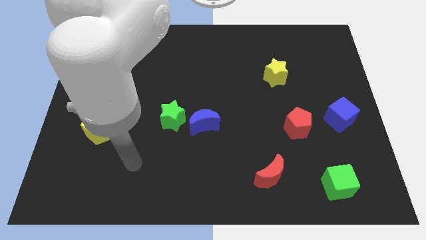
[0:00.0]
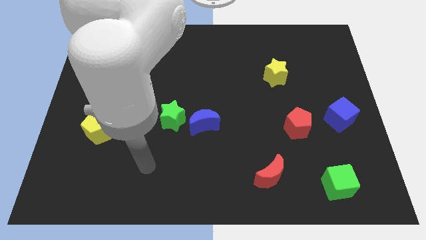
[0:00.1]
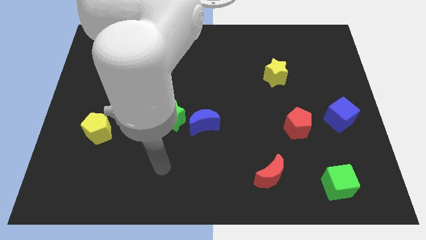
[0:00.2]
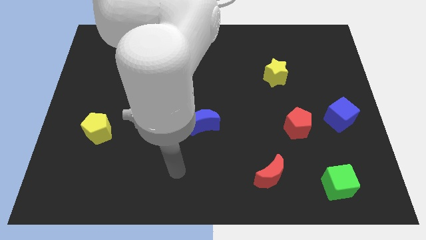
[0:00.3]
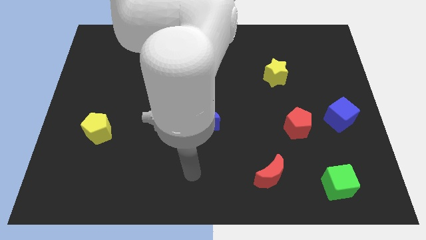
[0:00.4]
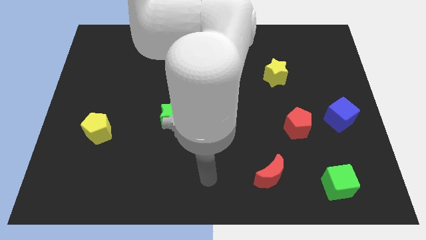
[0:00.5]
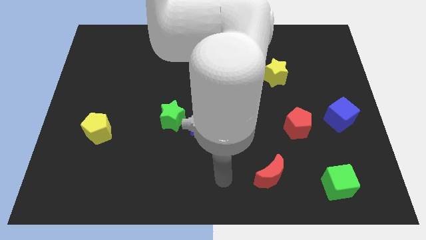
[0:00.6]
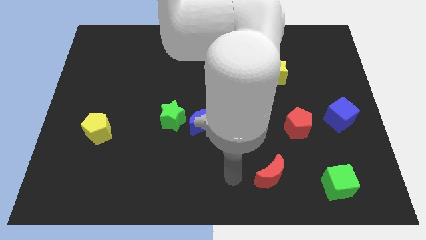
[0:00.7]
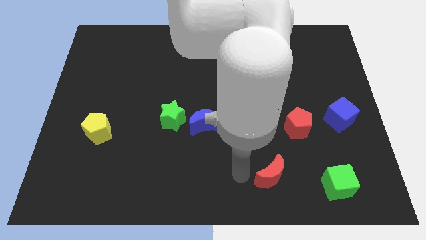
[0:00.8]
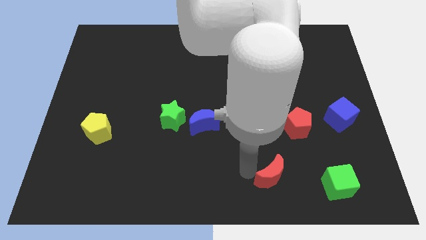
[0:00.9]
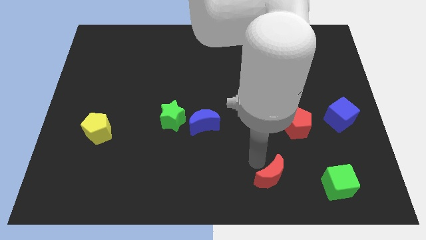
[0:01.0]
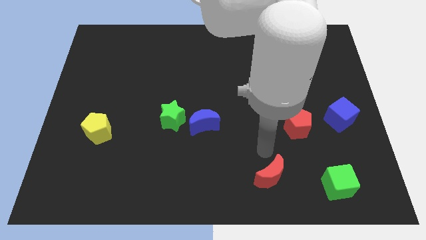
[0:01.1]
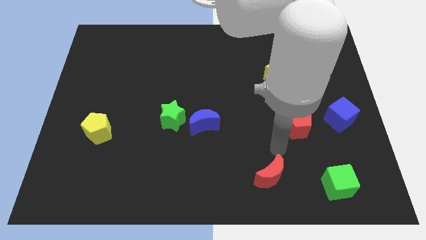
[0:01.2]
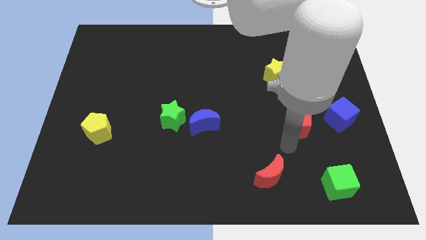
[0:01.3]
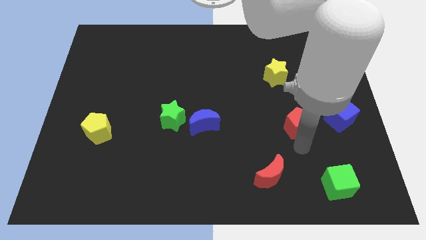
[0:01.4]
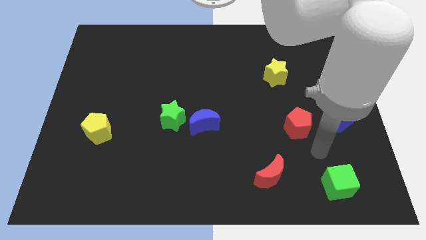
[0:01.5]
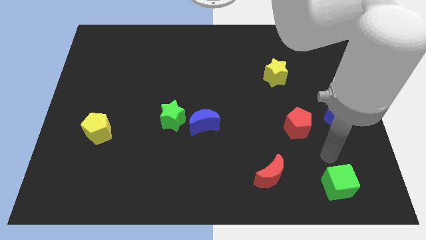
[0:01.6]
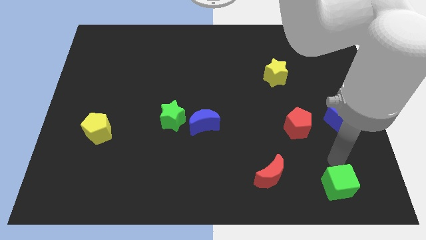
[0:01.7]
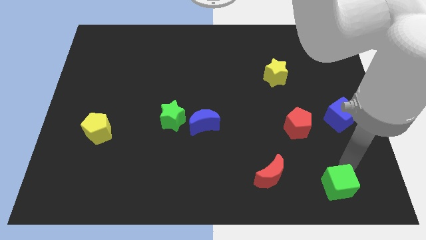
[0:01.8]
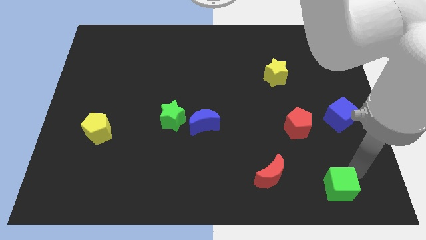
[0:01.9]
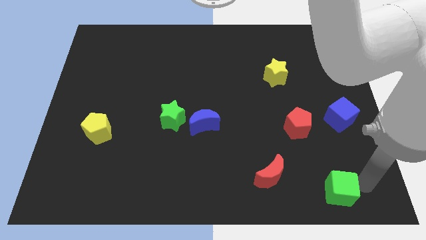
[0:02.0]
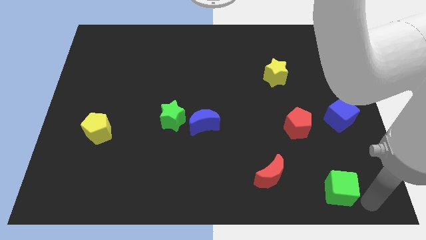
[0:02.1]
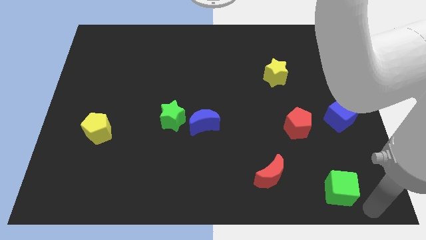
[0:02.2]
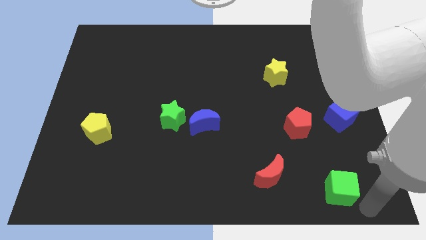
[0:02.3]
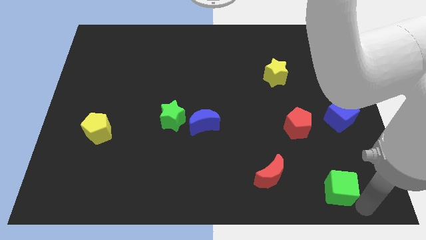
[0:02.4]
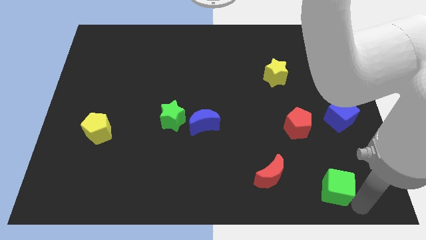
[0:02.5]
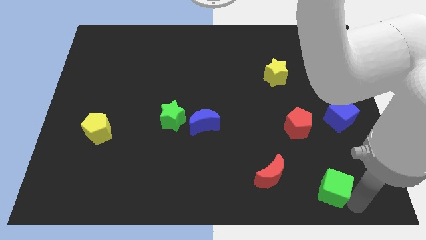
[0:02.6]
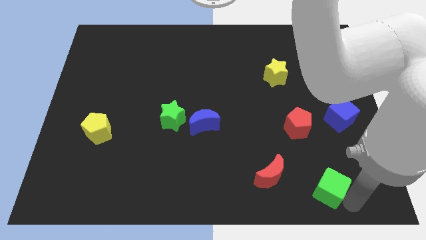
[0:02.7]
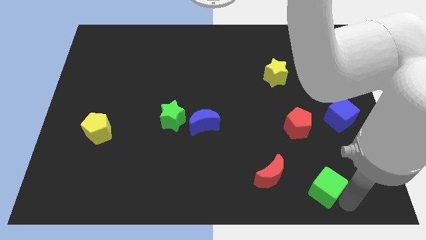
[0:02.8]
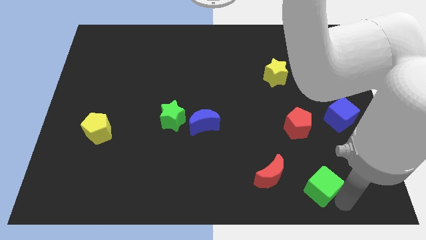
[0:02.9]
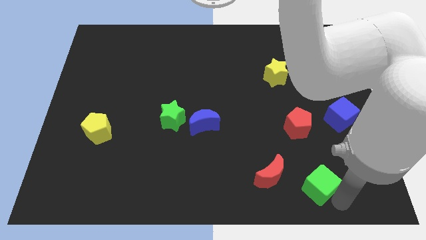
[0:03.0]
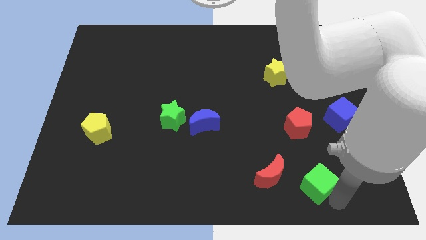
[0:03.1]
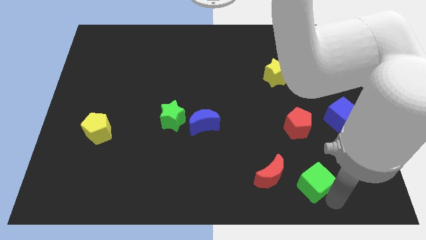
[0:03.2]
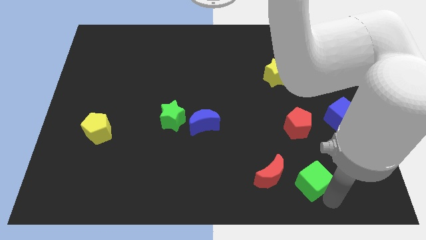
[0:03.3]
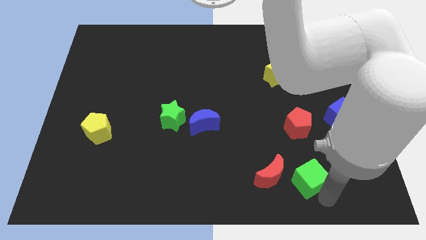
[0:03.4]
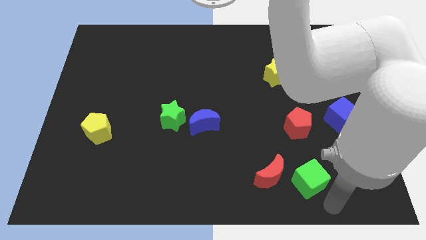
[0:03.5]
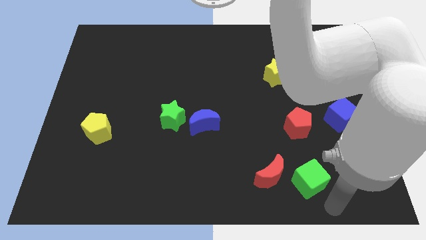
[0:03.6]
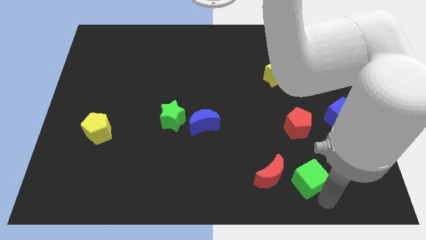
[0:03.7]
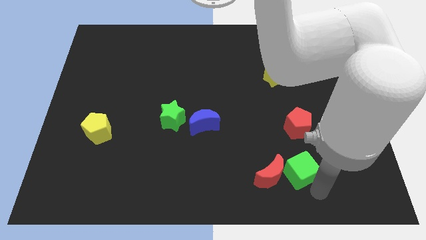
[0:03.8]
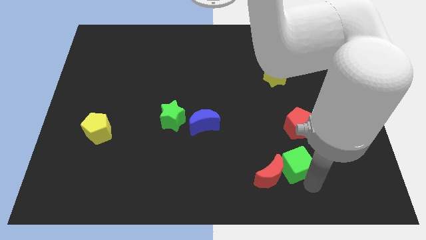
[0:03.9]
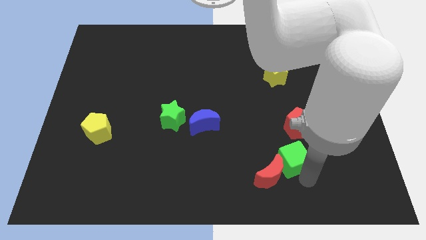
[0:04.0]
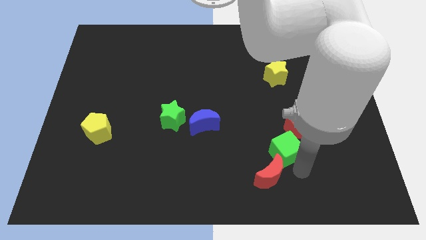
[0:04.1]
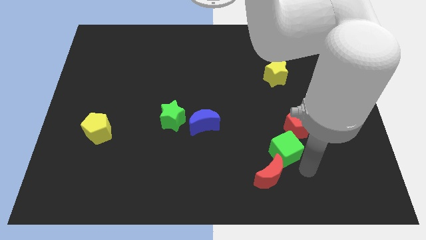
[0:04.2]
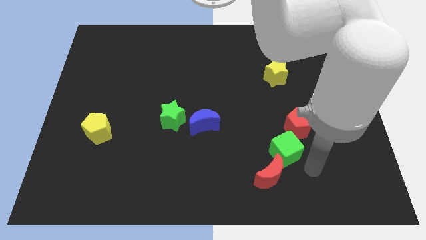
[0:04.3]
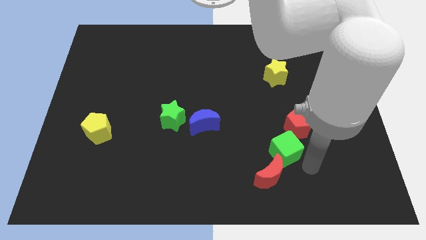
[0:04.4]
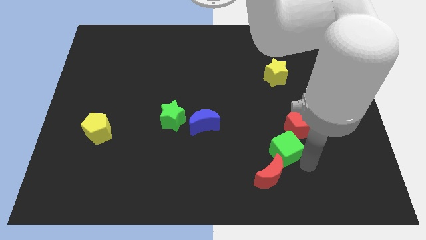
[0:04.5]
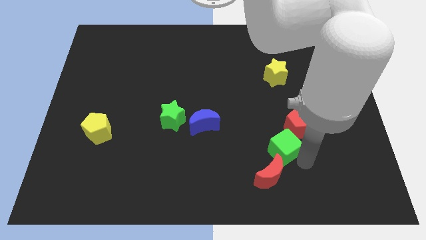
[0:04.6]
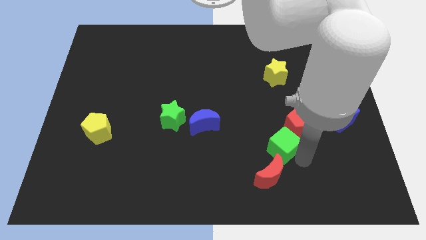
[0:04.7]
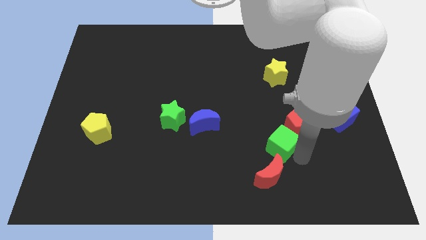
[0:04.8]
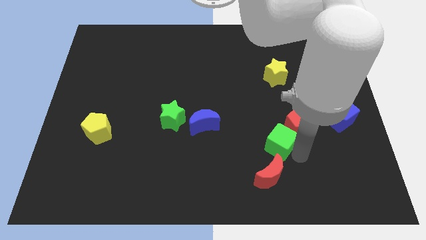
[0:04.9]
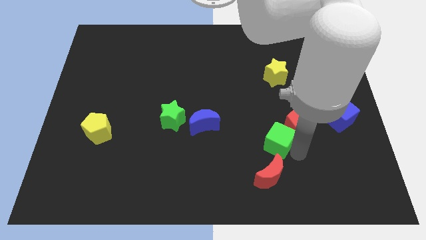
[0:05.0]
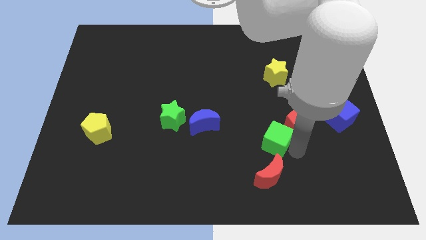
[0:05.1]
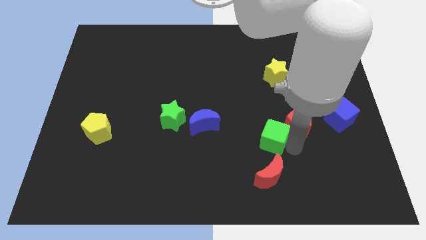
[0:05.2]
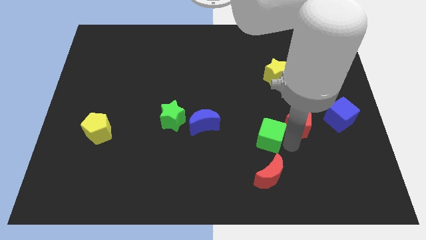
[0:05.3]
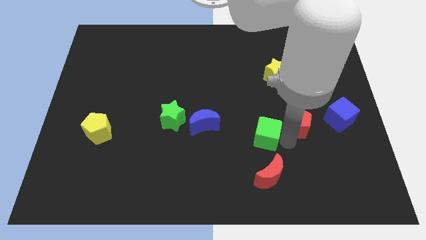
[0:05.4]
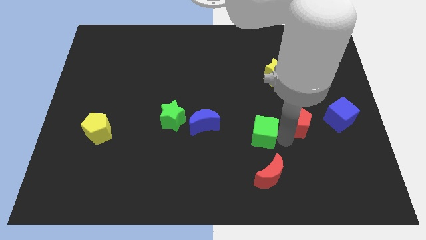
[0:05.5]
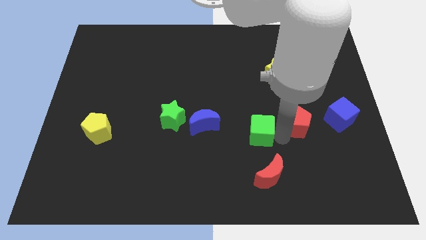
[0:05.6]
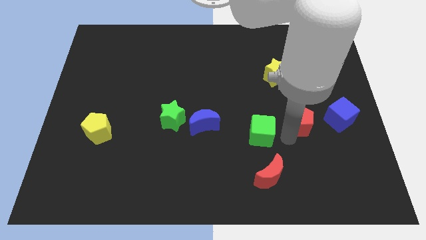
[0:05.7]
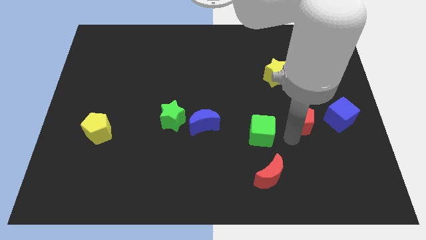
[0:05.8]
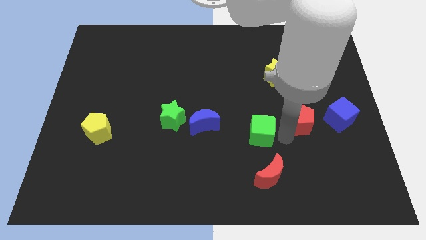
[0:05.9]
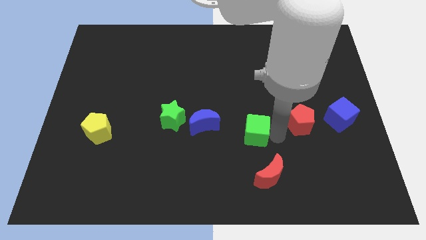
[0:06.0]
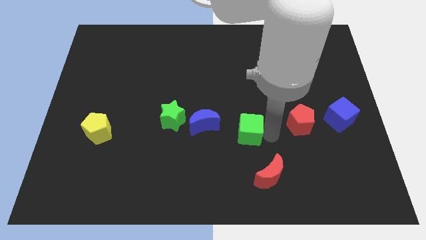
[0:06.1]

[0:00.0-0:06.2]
slide the green cube to the middle of the board

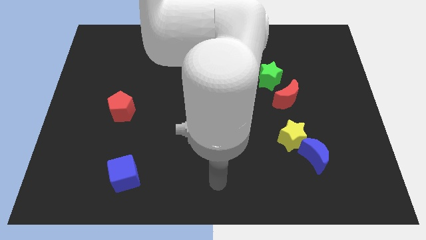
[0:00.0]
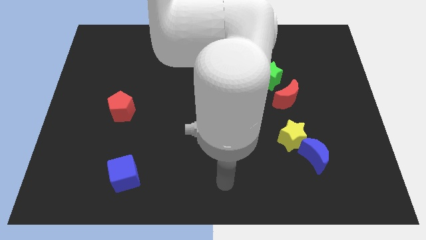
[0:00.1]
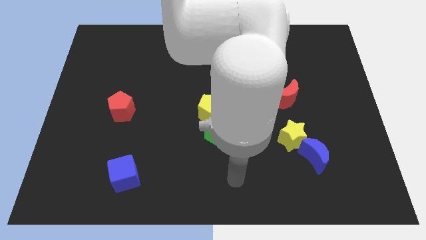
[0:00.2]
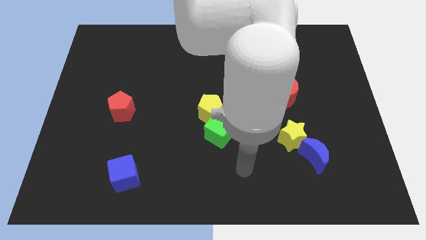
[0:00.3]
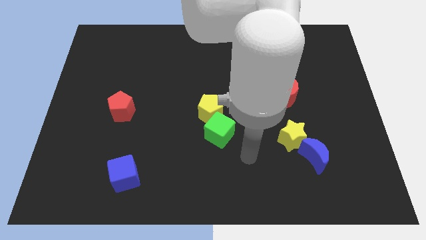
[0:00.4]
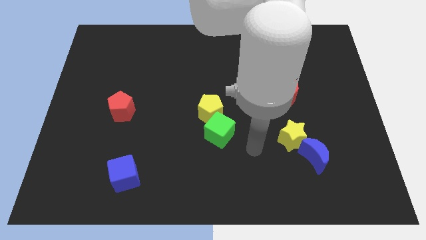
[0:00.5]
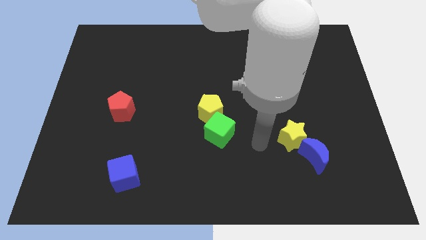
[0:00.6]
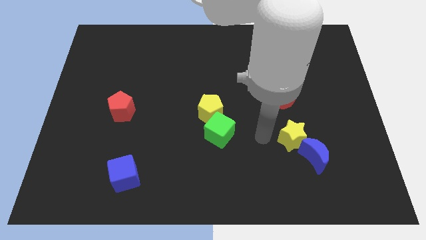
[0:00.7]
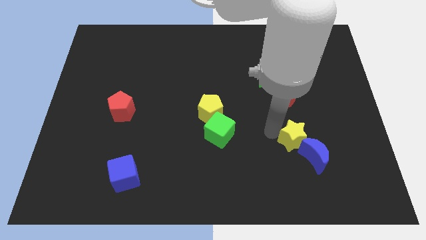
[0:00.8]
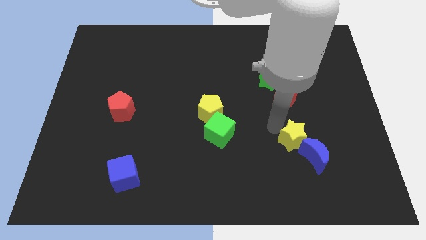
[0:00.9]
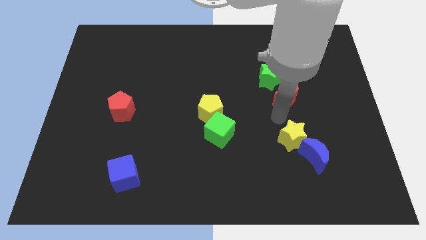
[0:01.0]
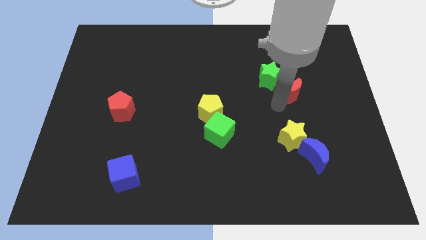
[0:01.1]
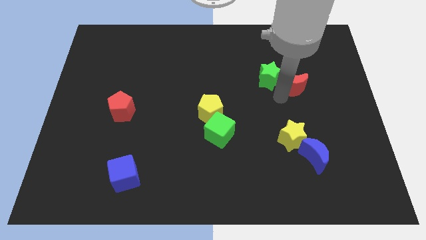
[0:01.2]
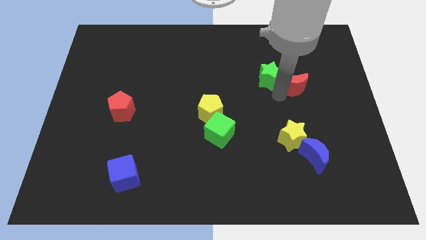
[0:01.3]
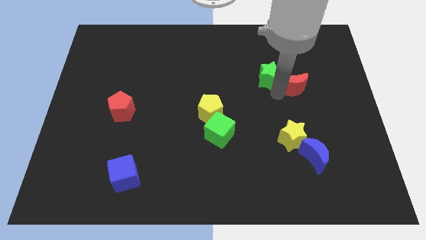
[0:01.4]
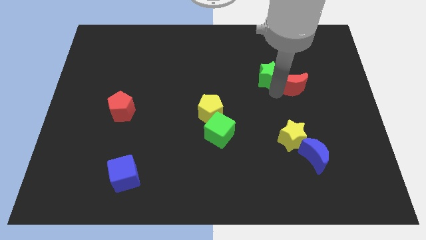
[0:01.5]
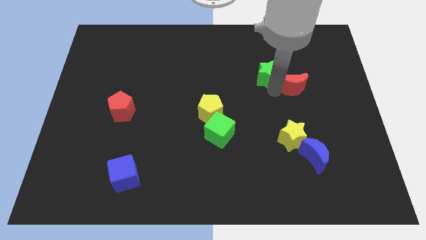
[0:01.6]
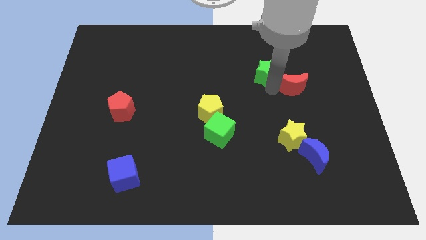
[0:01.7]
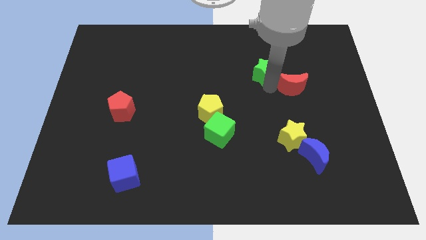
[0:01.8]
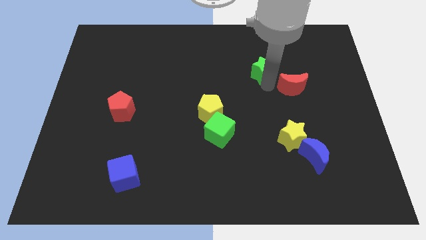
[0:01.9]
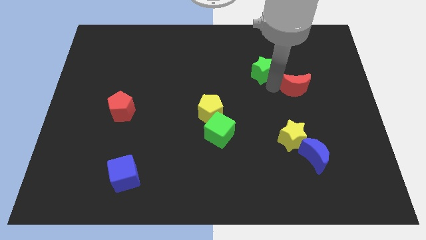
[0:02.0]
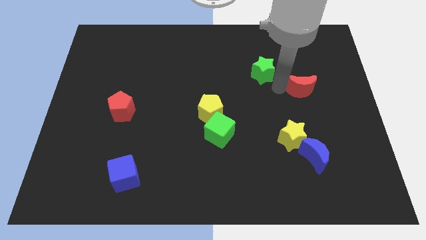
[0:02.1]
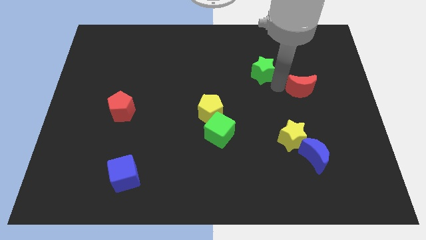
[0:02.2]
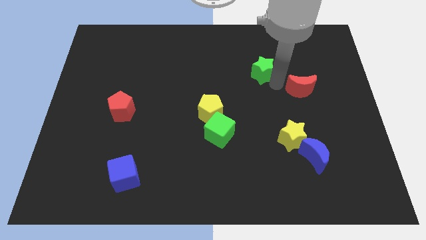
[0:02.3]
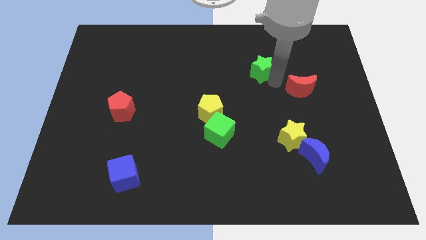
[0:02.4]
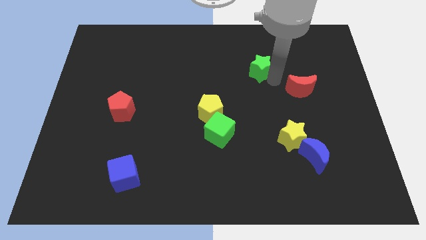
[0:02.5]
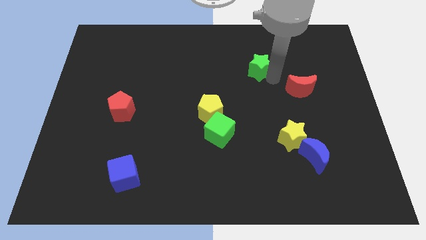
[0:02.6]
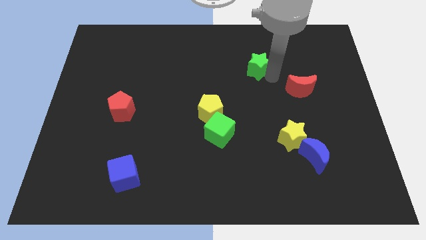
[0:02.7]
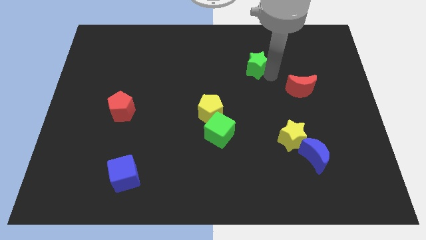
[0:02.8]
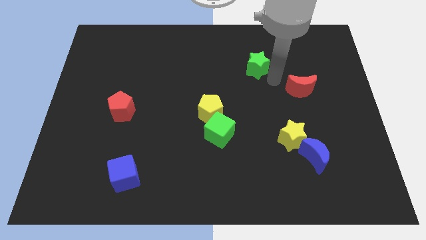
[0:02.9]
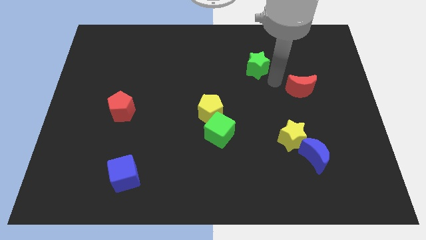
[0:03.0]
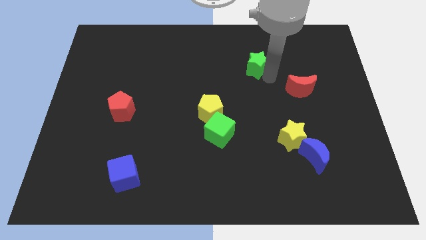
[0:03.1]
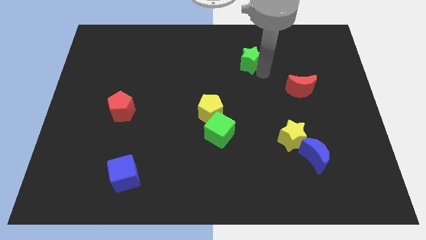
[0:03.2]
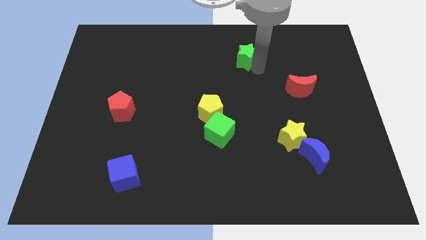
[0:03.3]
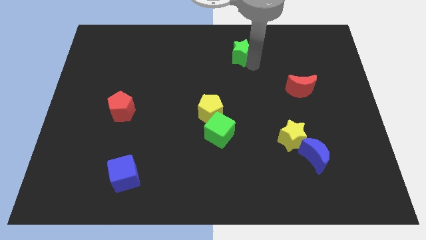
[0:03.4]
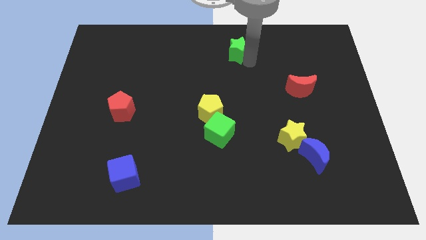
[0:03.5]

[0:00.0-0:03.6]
slide the green star to the top side
